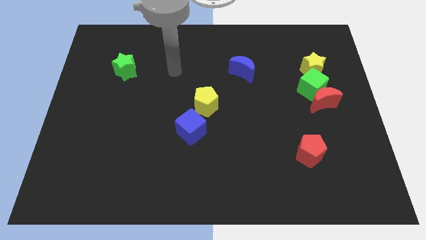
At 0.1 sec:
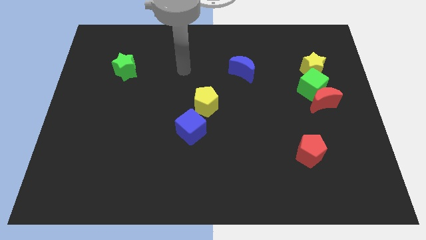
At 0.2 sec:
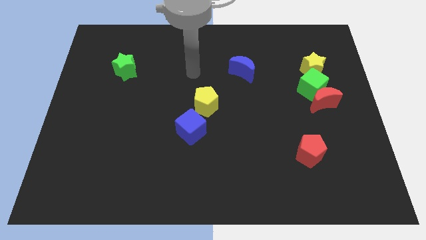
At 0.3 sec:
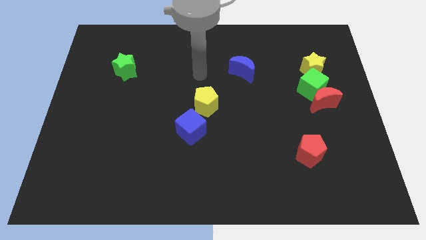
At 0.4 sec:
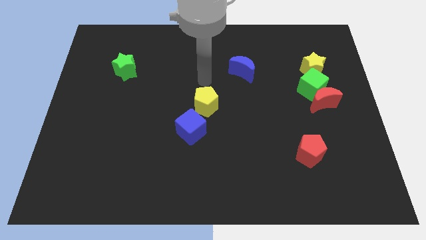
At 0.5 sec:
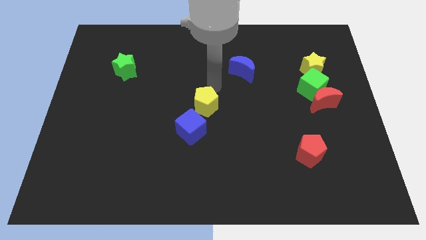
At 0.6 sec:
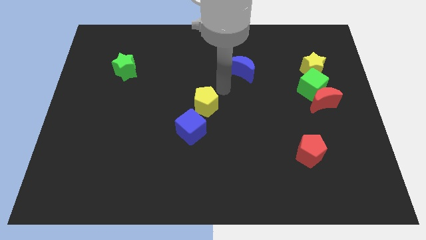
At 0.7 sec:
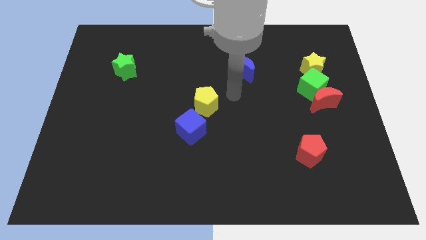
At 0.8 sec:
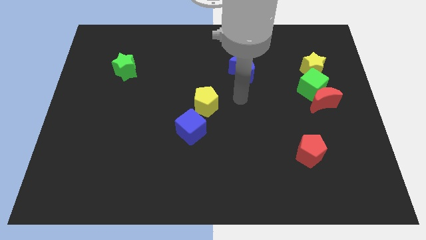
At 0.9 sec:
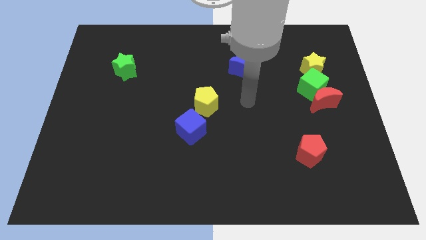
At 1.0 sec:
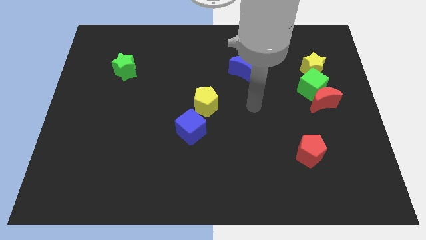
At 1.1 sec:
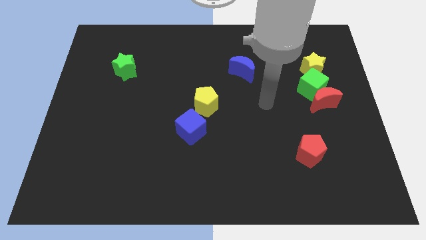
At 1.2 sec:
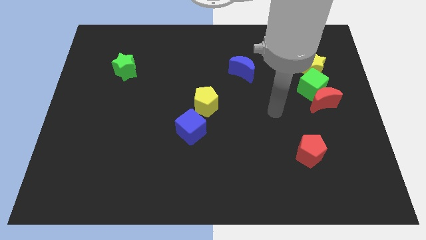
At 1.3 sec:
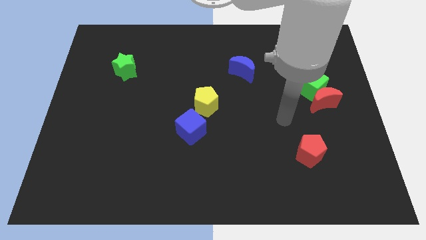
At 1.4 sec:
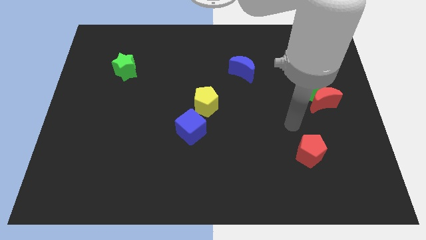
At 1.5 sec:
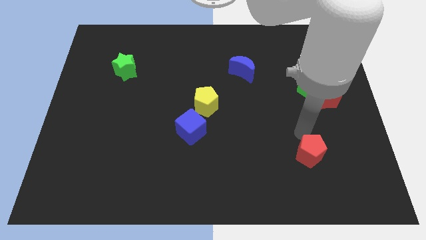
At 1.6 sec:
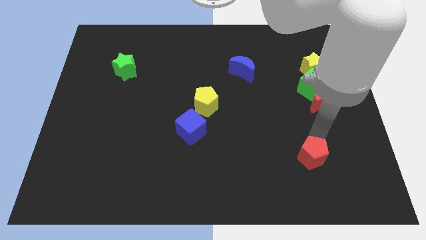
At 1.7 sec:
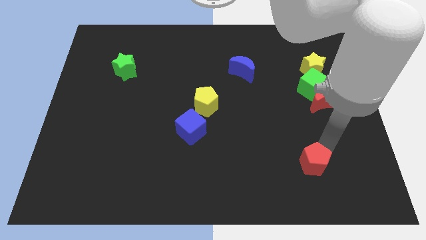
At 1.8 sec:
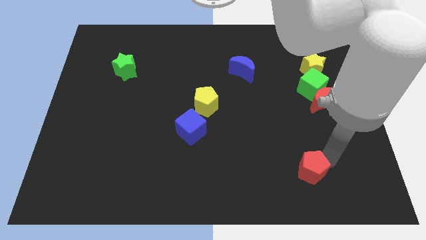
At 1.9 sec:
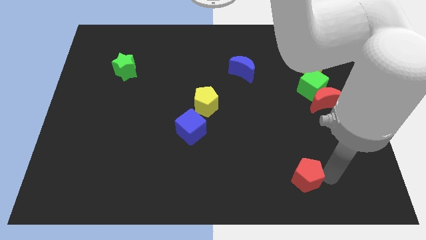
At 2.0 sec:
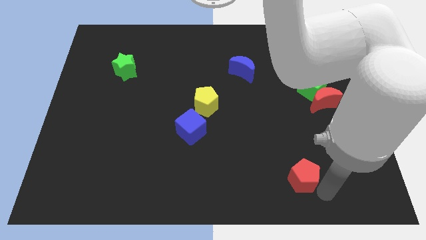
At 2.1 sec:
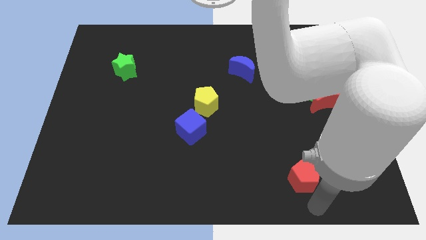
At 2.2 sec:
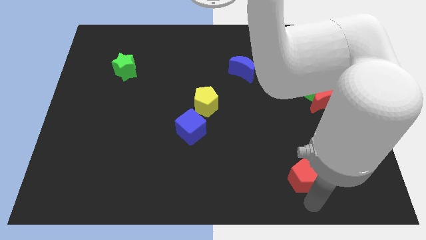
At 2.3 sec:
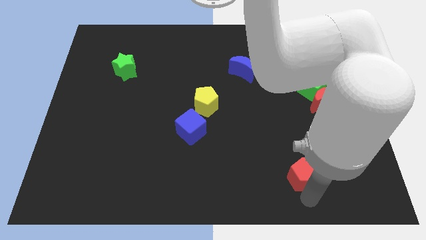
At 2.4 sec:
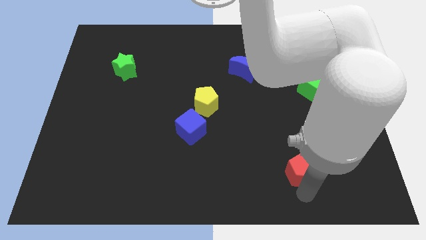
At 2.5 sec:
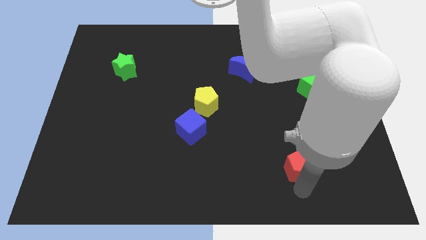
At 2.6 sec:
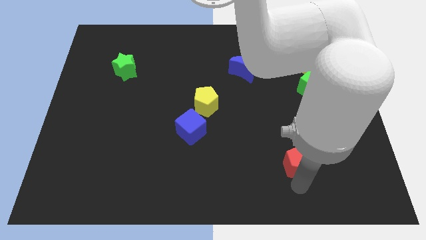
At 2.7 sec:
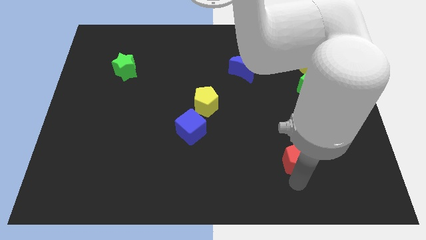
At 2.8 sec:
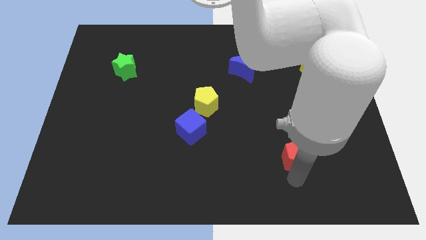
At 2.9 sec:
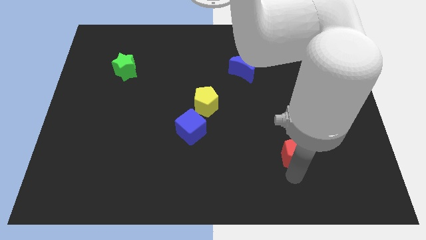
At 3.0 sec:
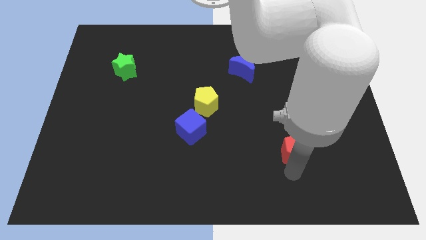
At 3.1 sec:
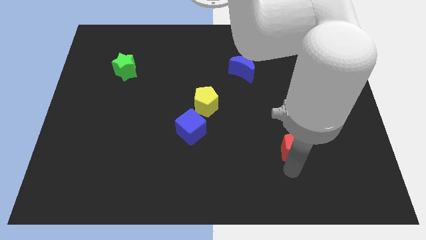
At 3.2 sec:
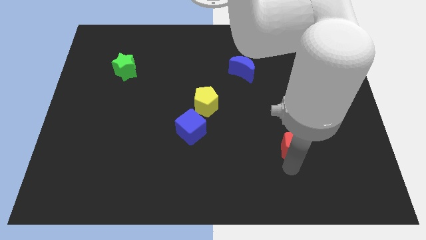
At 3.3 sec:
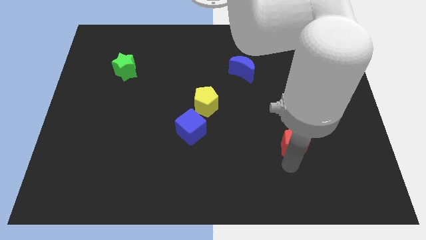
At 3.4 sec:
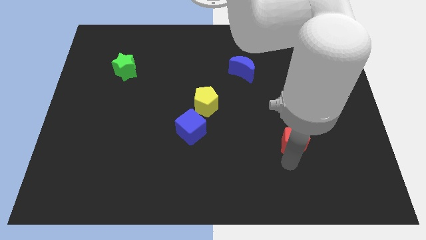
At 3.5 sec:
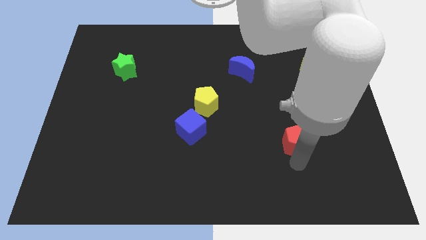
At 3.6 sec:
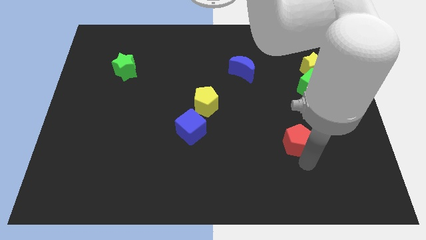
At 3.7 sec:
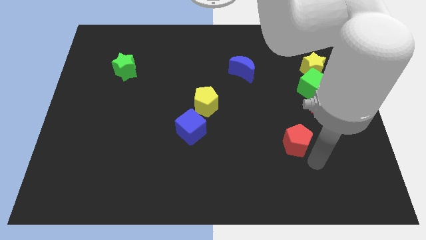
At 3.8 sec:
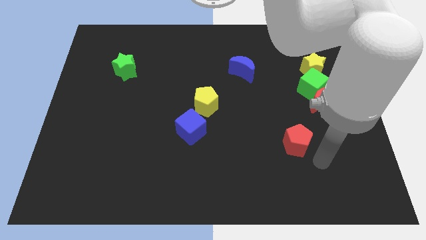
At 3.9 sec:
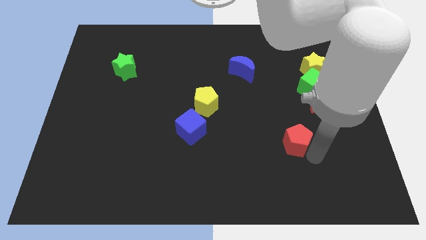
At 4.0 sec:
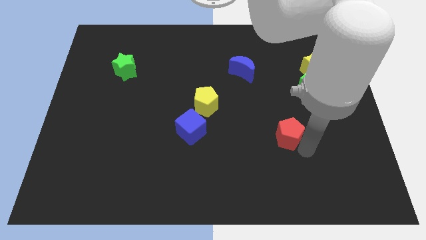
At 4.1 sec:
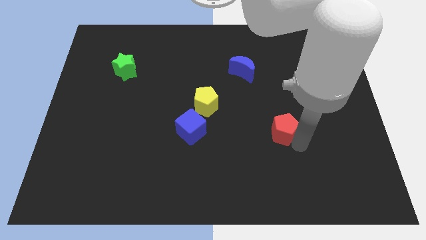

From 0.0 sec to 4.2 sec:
push the red pentagon up and to the left diagonally a little bit

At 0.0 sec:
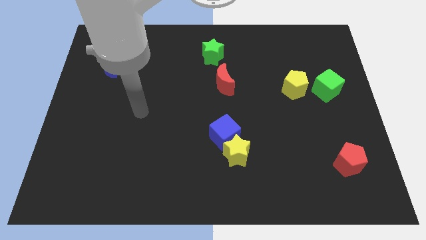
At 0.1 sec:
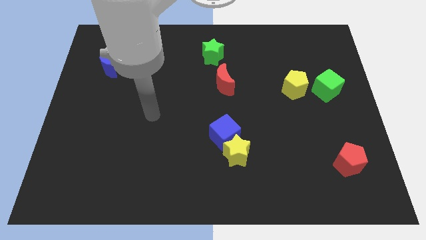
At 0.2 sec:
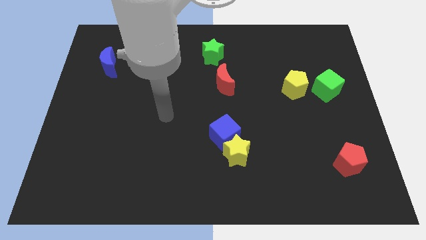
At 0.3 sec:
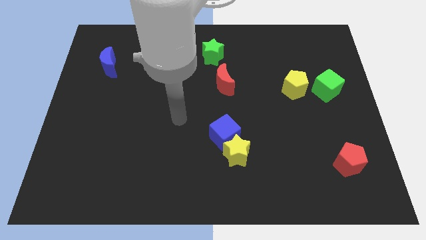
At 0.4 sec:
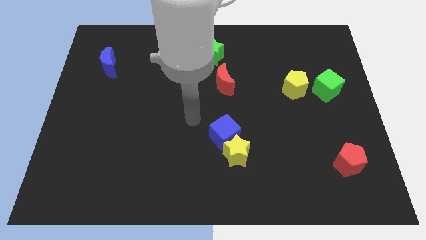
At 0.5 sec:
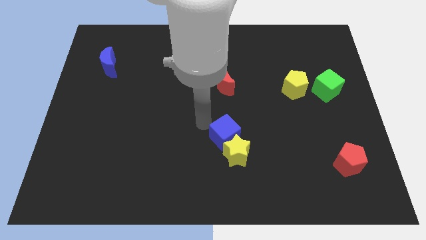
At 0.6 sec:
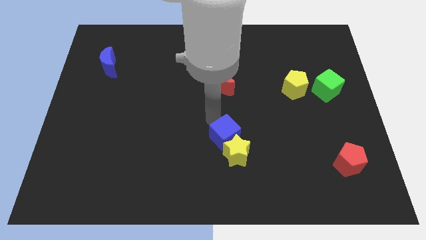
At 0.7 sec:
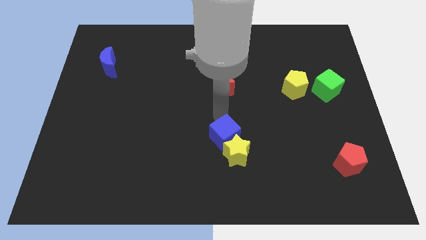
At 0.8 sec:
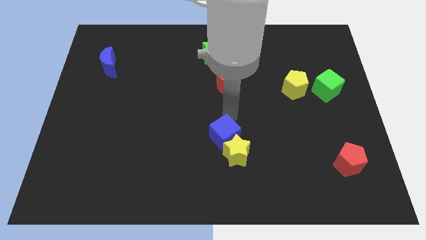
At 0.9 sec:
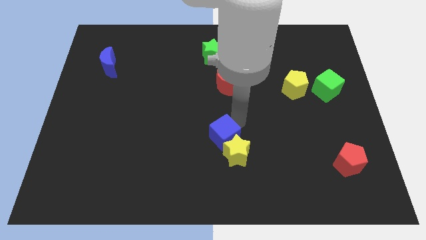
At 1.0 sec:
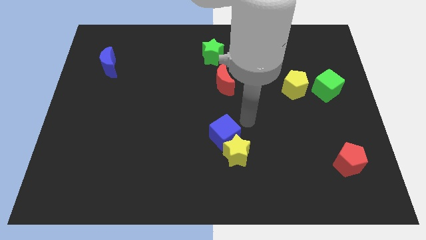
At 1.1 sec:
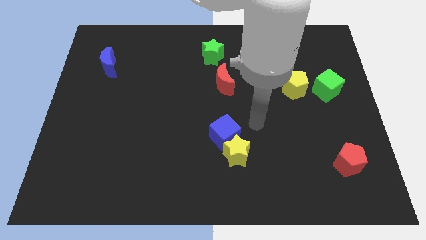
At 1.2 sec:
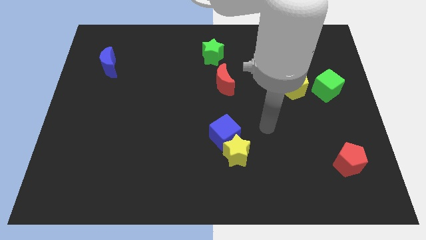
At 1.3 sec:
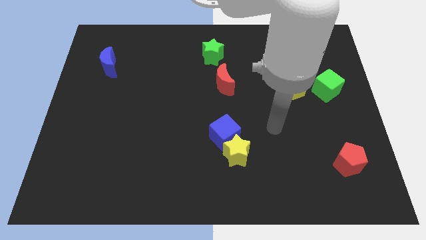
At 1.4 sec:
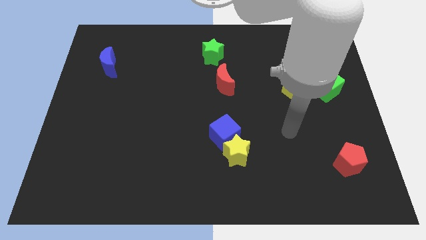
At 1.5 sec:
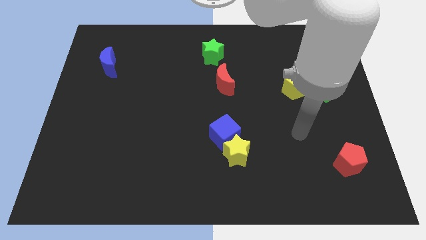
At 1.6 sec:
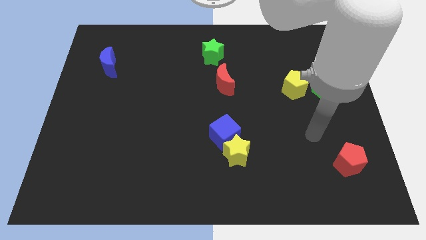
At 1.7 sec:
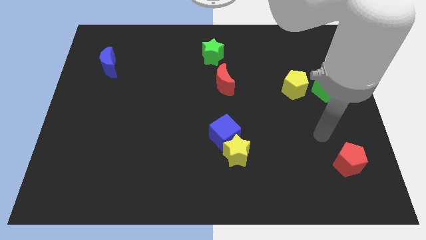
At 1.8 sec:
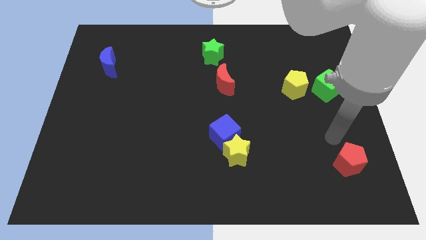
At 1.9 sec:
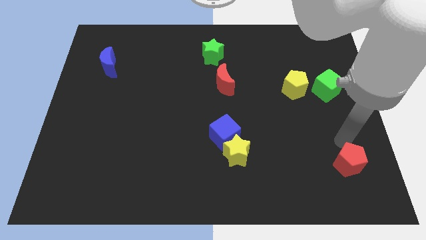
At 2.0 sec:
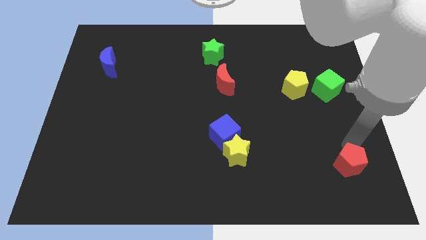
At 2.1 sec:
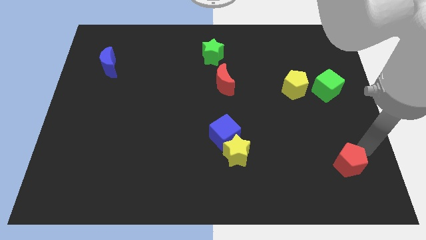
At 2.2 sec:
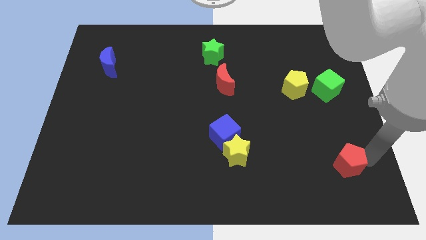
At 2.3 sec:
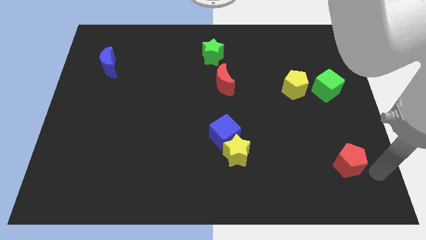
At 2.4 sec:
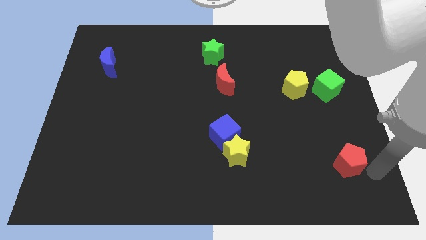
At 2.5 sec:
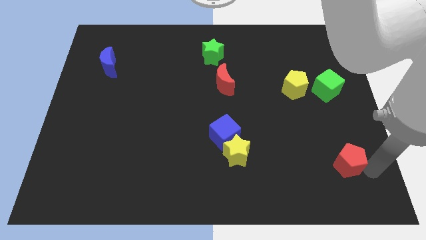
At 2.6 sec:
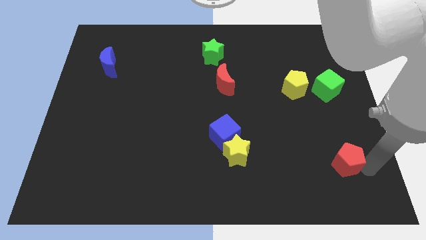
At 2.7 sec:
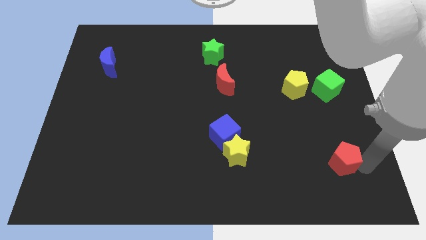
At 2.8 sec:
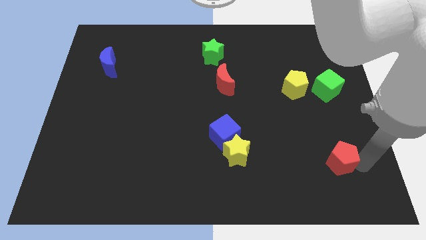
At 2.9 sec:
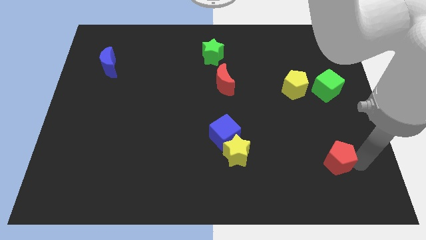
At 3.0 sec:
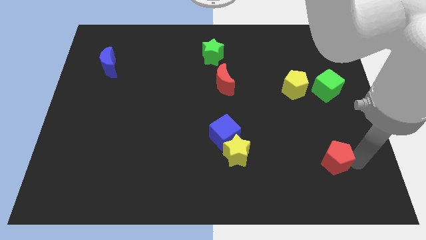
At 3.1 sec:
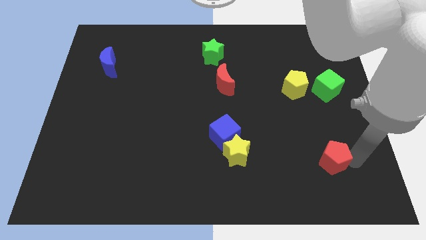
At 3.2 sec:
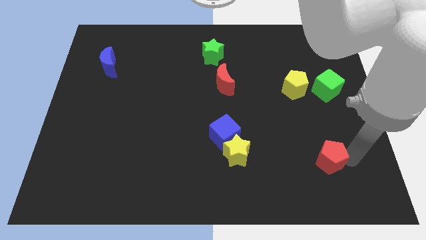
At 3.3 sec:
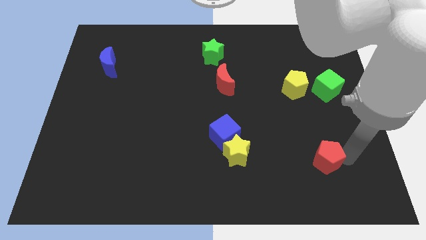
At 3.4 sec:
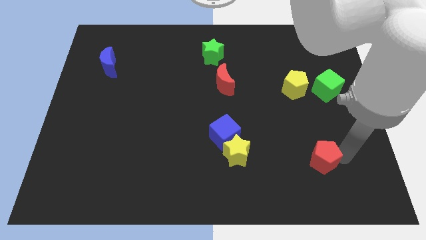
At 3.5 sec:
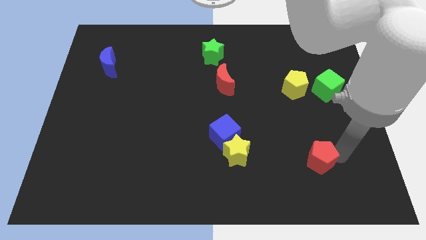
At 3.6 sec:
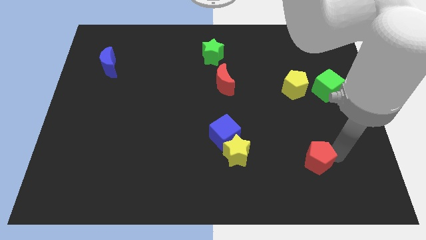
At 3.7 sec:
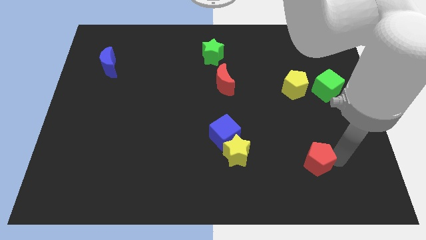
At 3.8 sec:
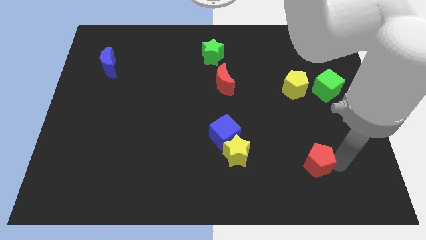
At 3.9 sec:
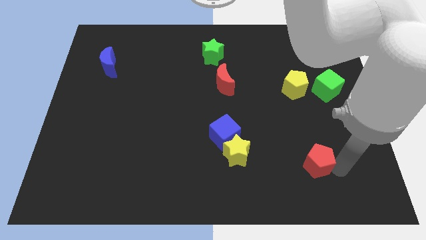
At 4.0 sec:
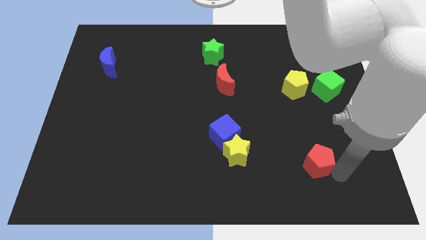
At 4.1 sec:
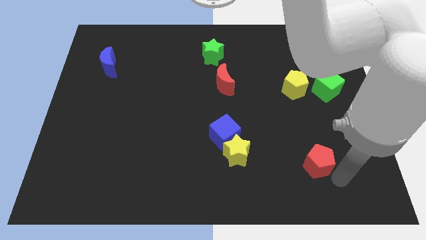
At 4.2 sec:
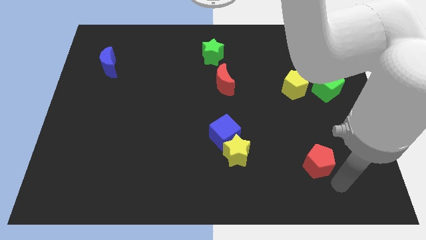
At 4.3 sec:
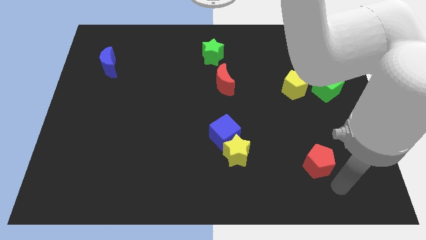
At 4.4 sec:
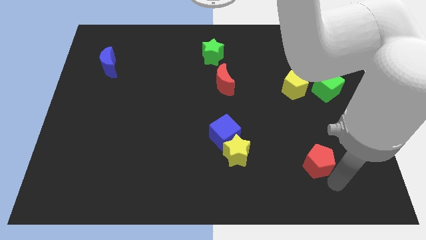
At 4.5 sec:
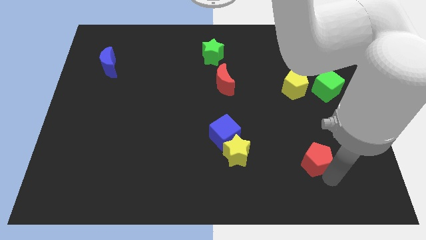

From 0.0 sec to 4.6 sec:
slightly push the red pentagon left
